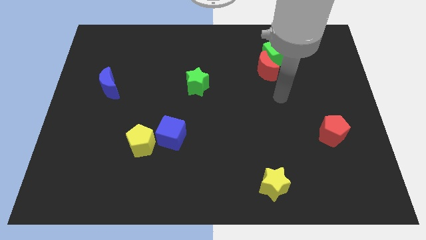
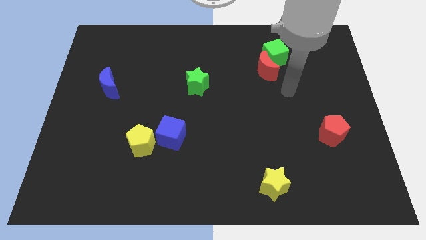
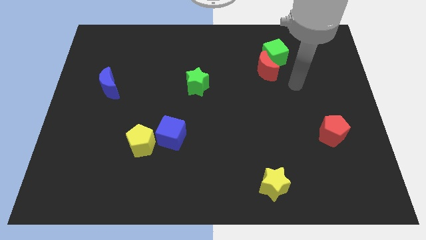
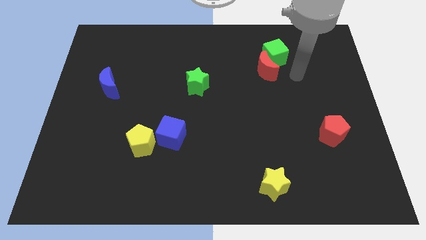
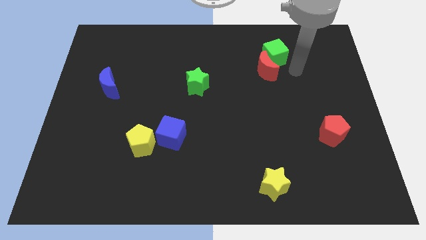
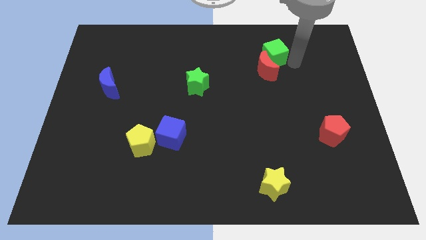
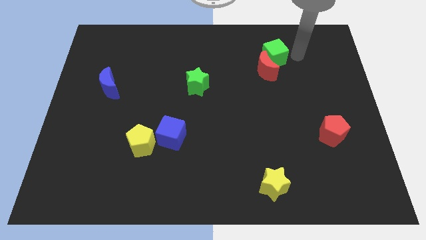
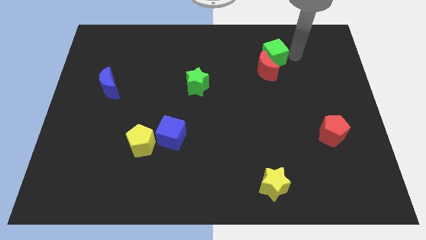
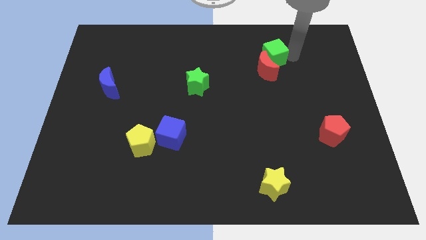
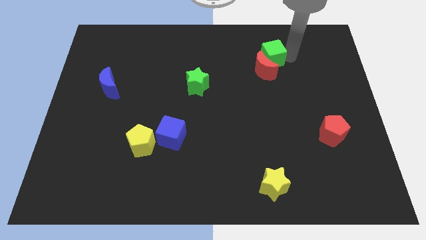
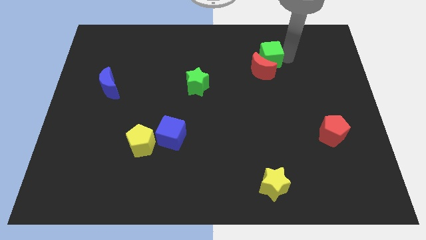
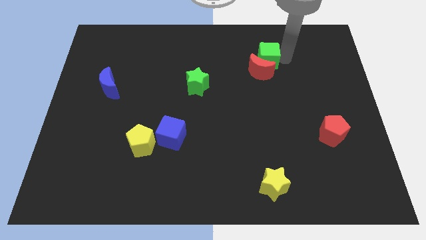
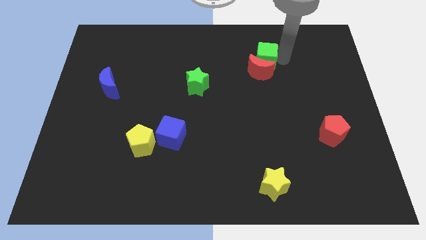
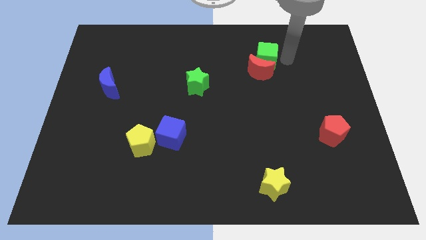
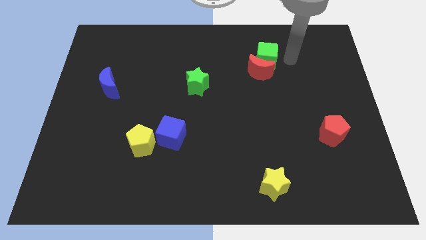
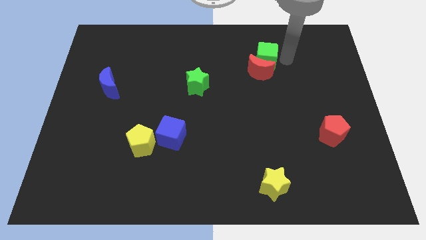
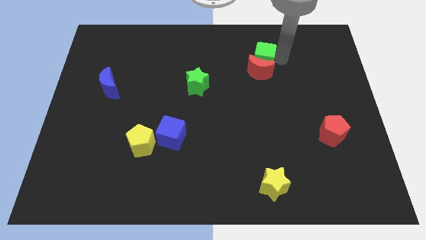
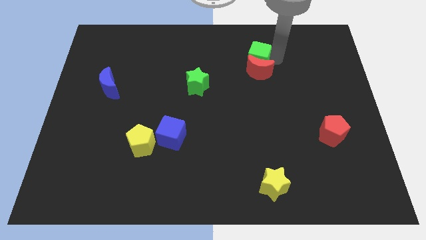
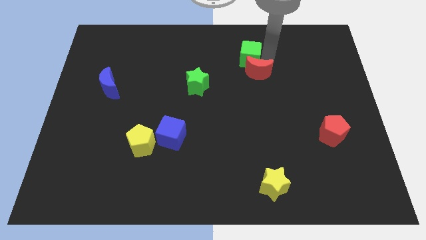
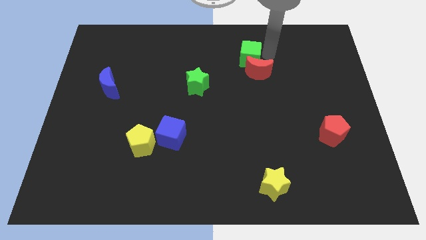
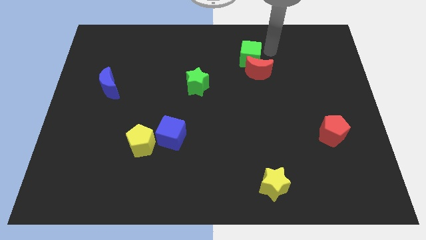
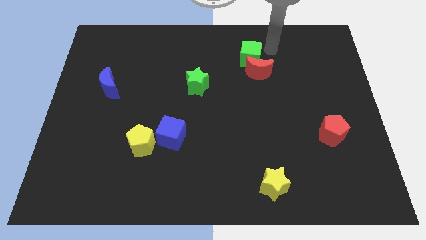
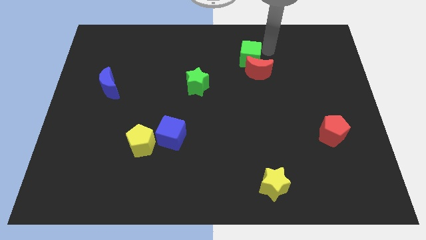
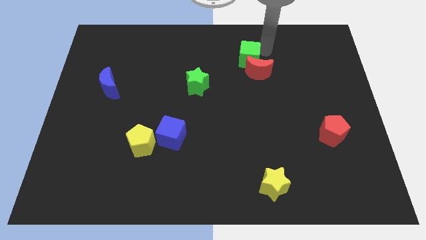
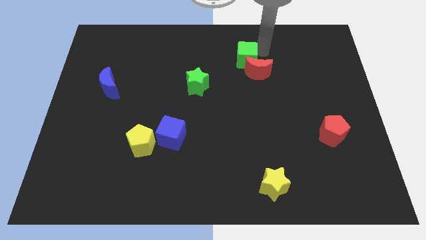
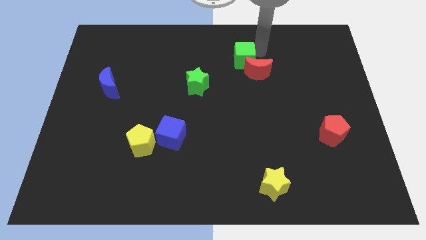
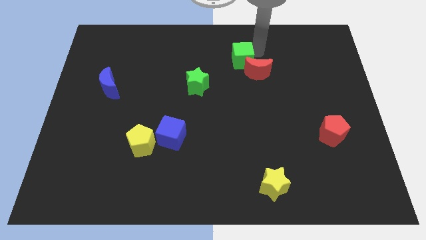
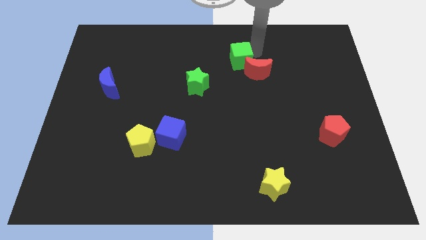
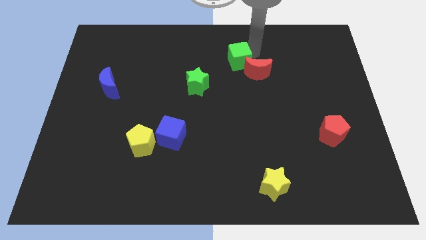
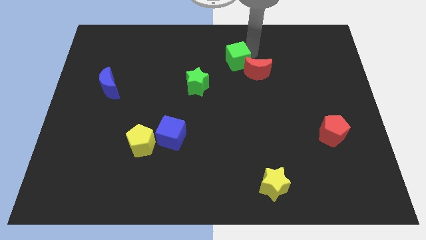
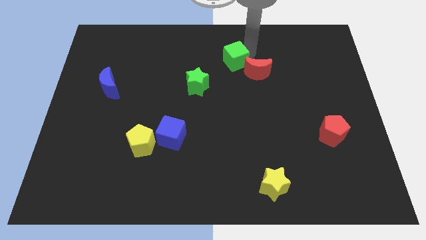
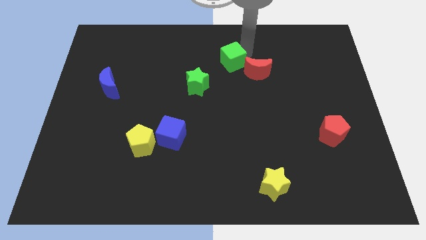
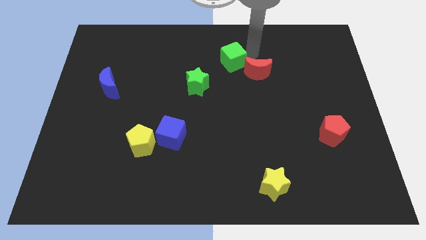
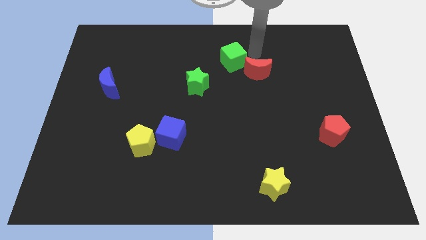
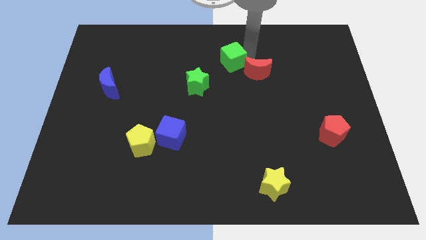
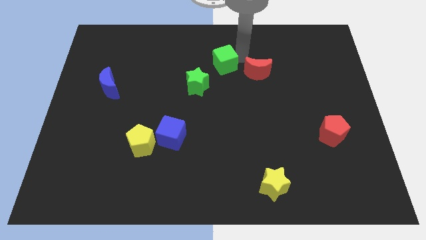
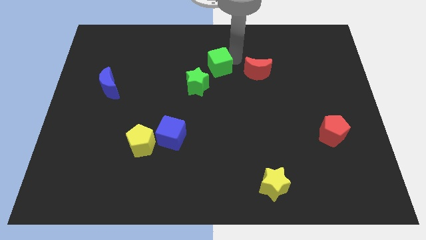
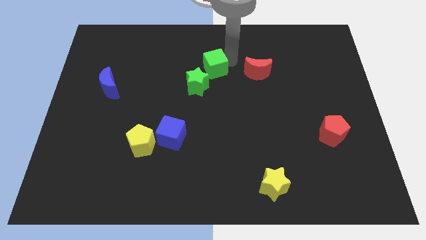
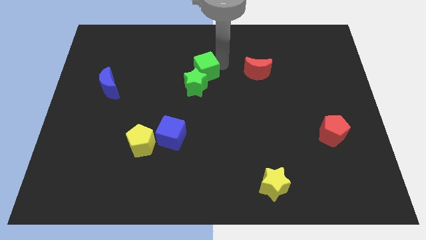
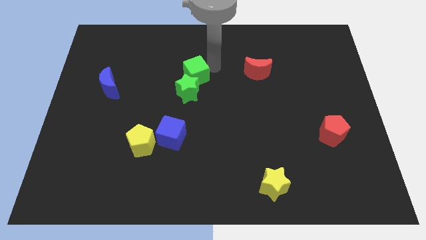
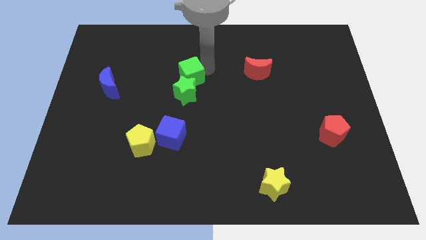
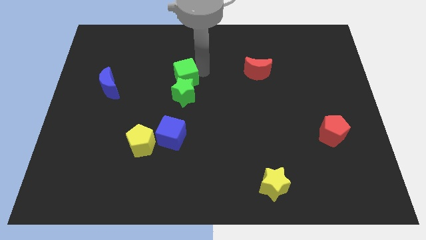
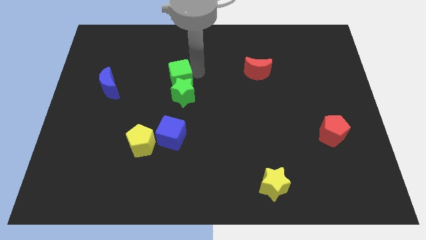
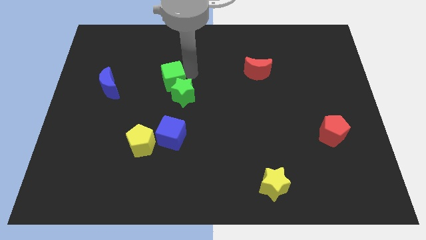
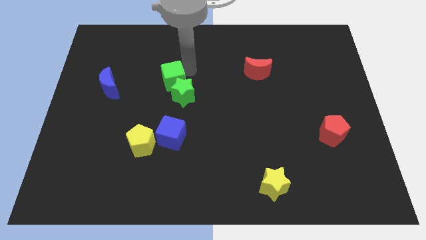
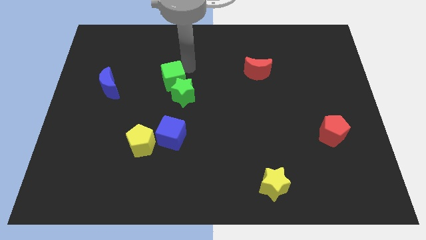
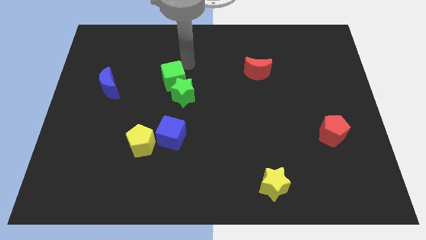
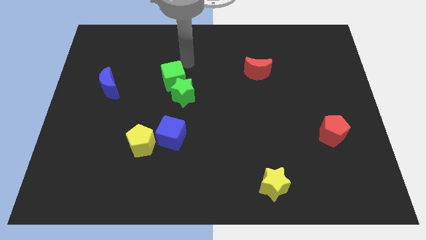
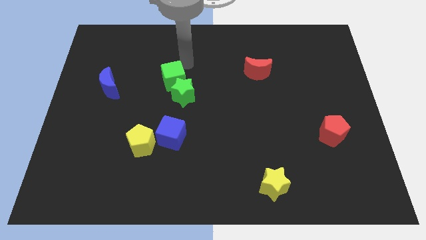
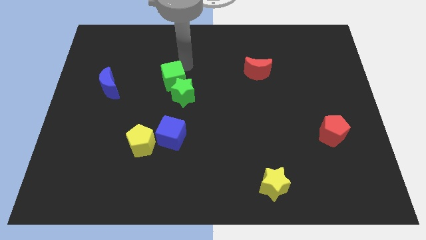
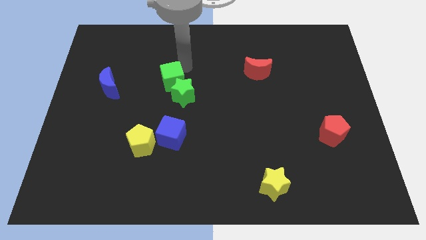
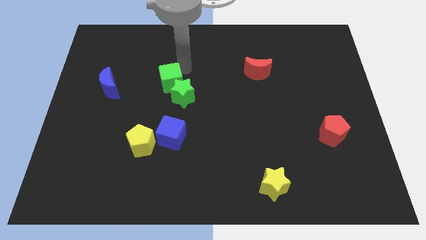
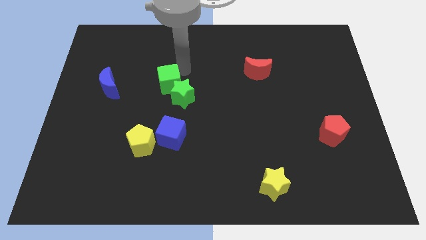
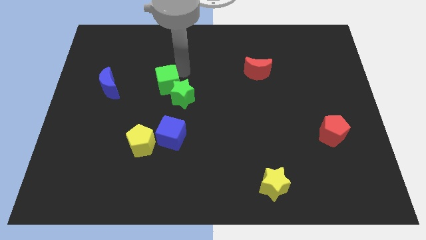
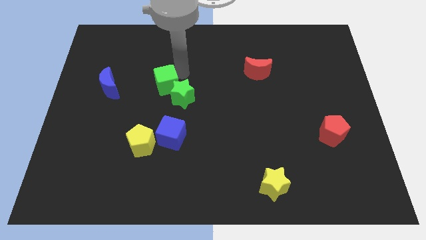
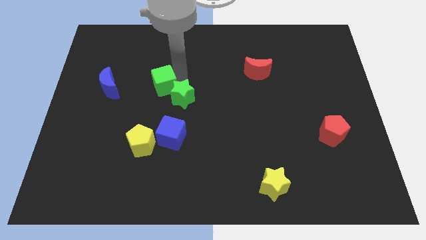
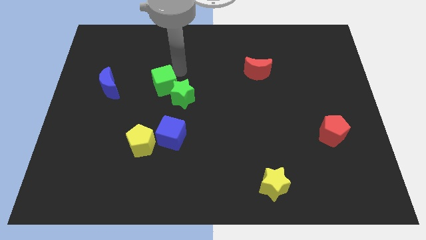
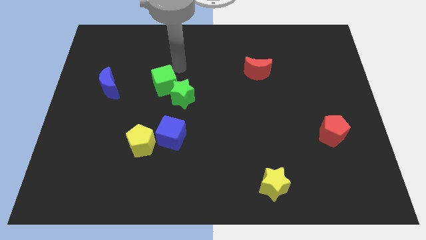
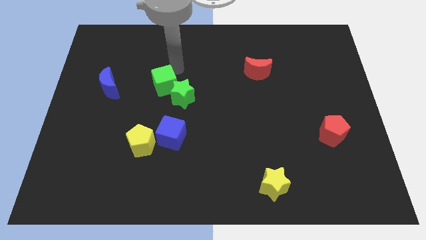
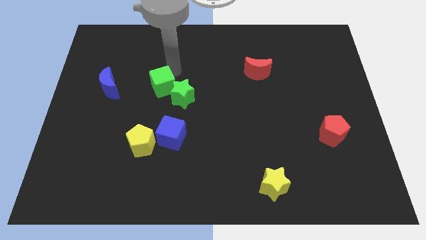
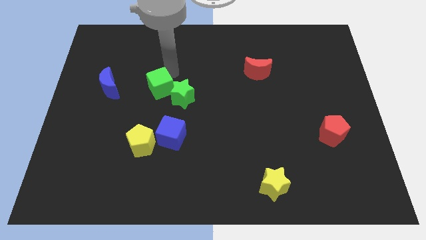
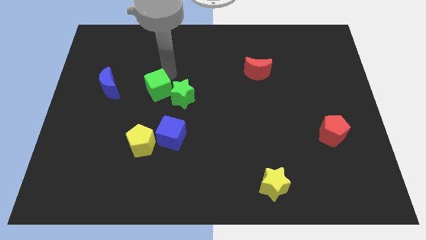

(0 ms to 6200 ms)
move the green cube to the top of the yellow pentagon

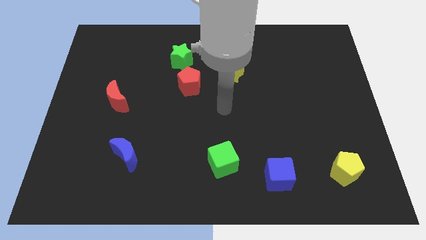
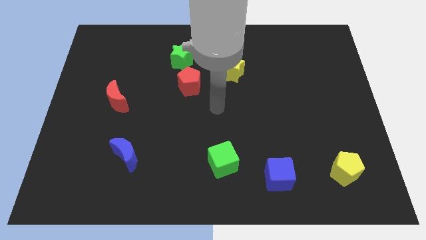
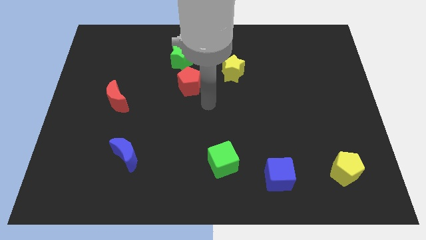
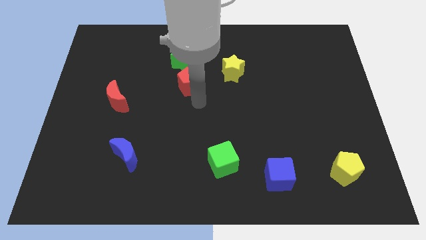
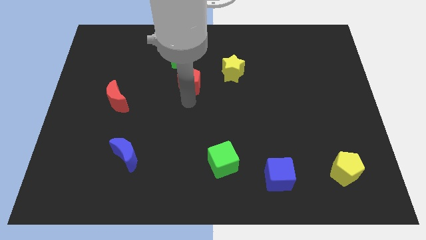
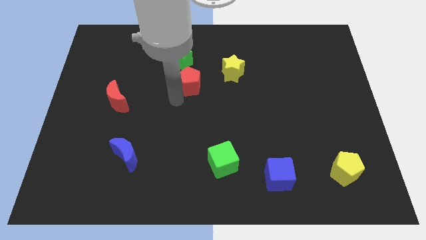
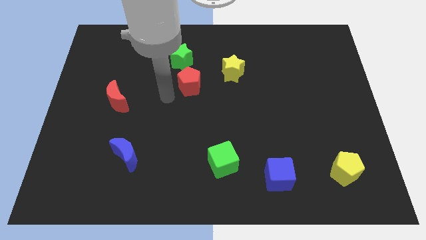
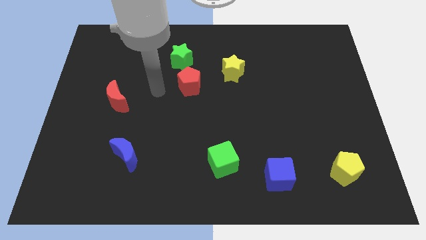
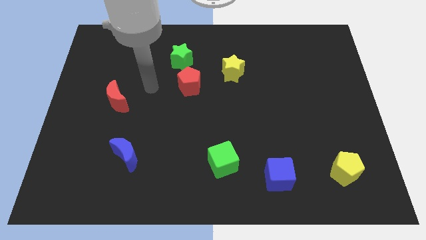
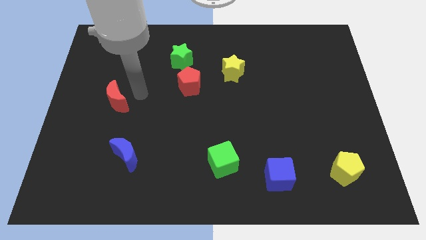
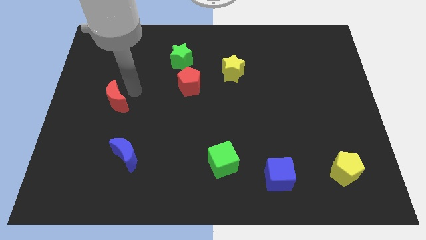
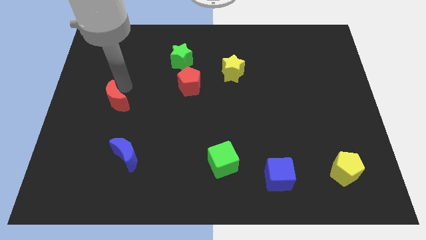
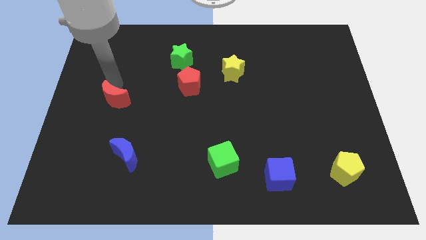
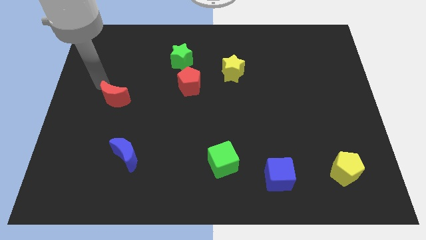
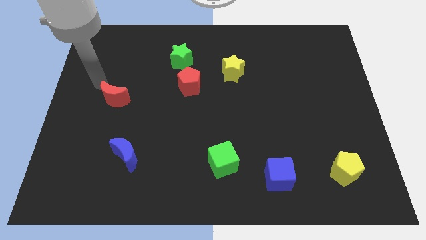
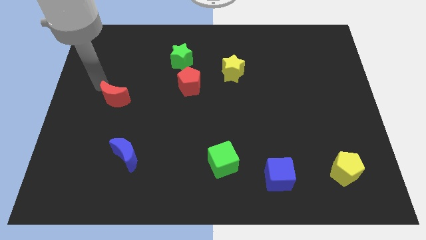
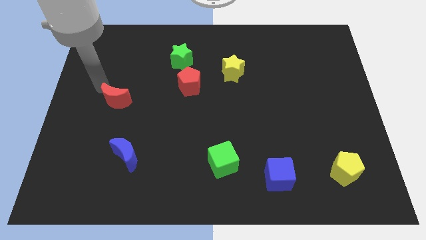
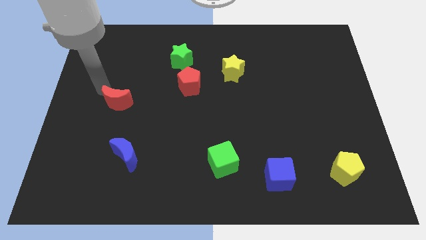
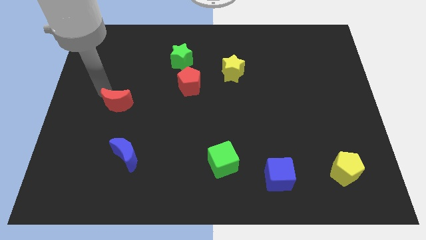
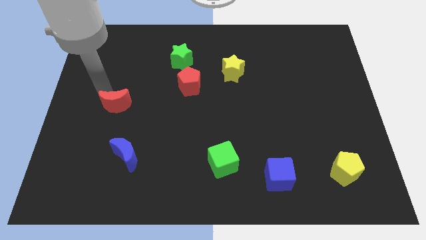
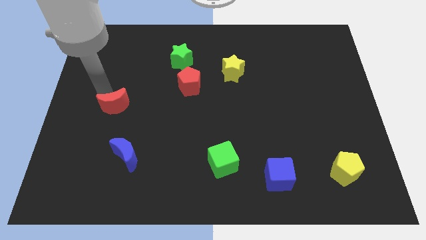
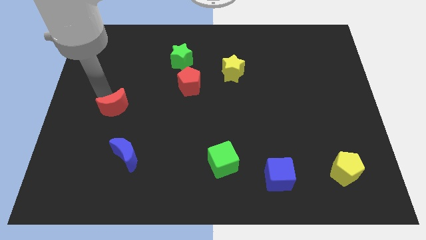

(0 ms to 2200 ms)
slide the red moon above the blue moon
